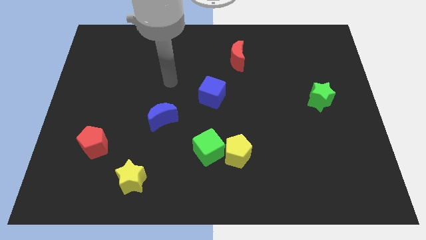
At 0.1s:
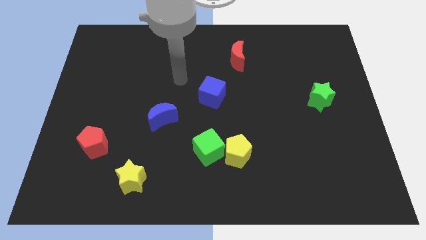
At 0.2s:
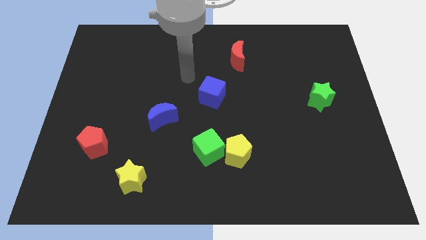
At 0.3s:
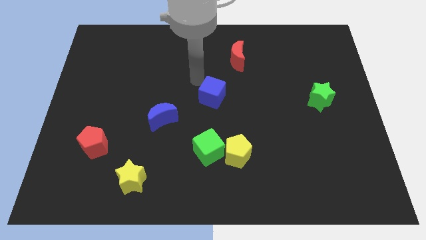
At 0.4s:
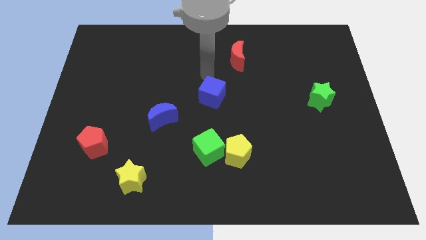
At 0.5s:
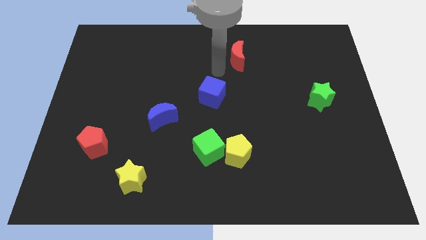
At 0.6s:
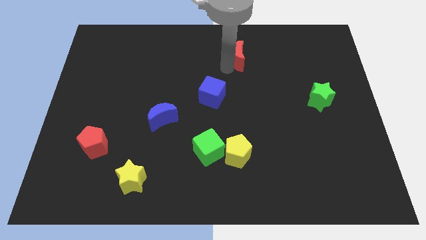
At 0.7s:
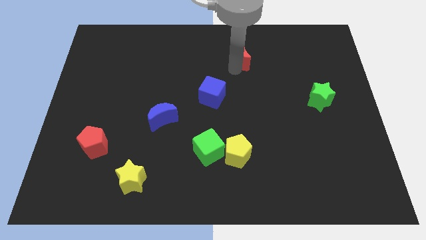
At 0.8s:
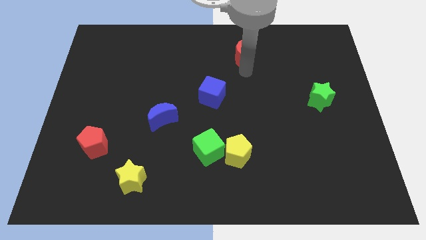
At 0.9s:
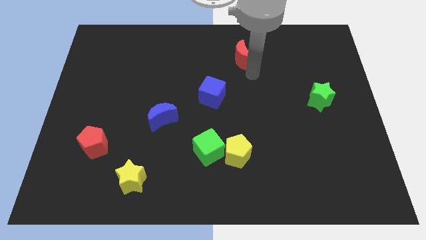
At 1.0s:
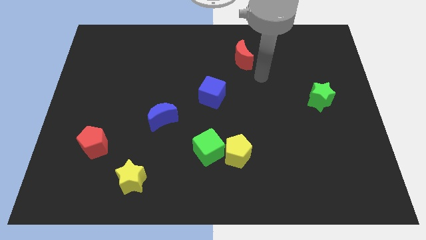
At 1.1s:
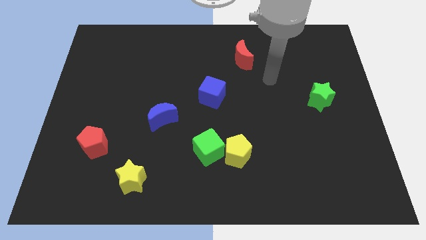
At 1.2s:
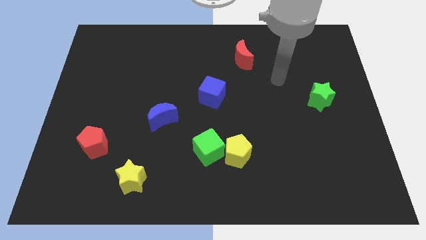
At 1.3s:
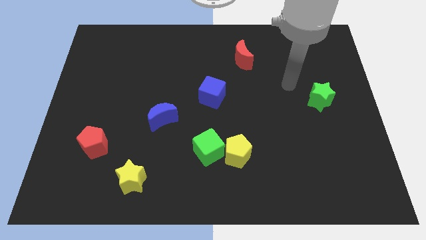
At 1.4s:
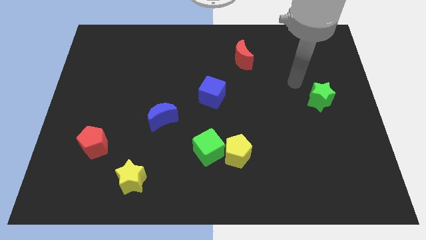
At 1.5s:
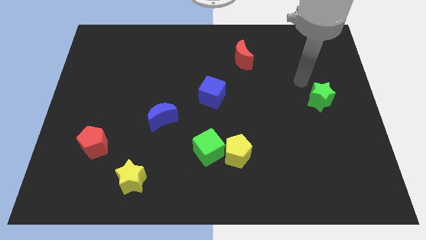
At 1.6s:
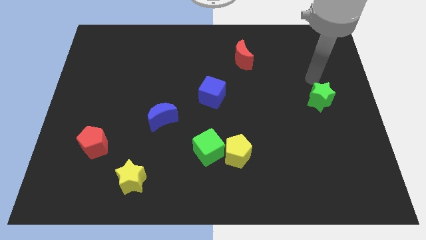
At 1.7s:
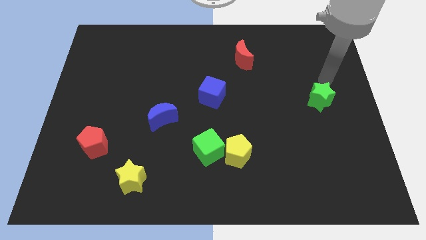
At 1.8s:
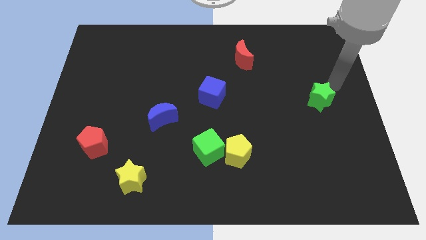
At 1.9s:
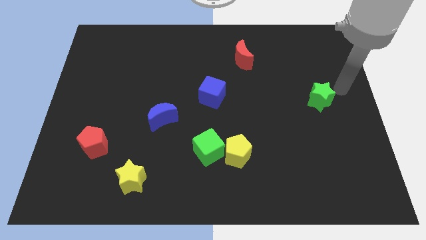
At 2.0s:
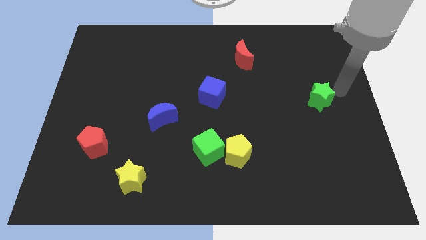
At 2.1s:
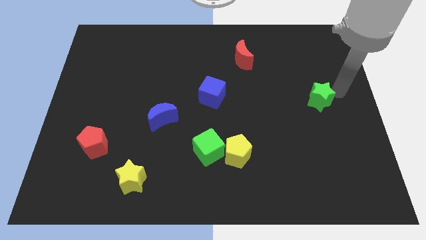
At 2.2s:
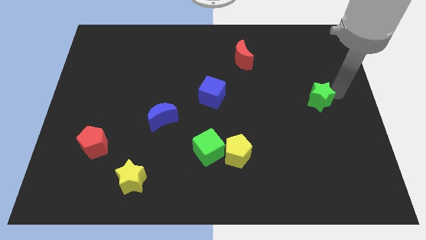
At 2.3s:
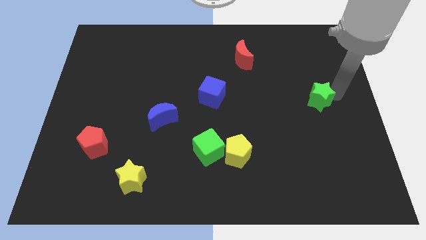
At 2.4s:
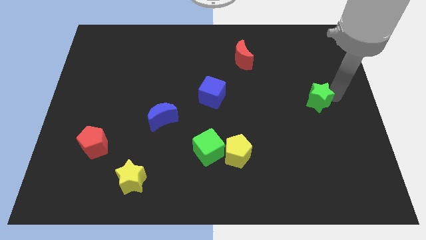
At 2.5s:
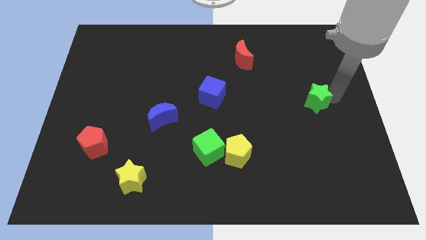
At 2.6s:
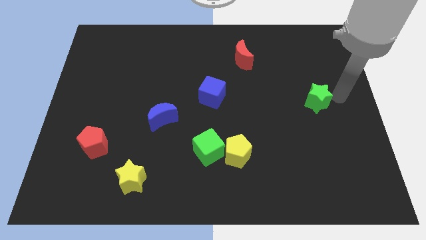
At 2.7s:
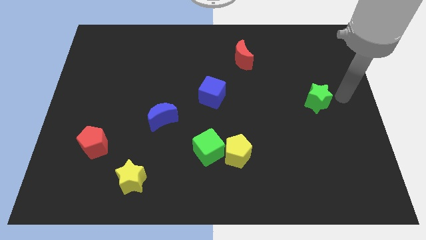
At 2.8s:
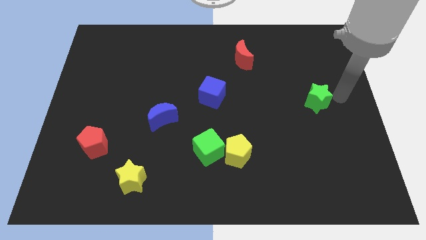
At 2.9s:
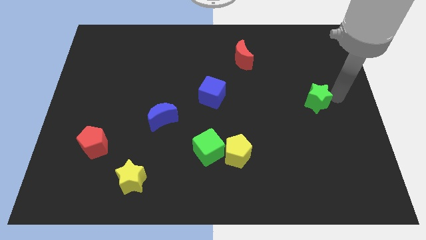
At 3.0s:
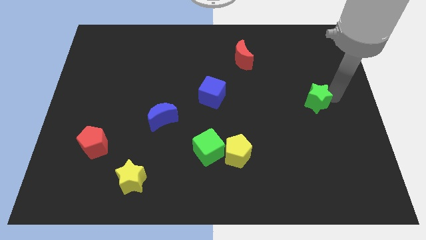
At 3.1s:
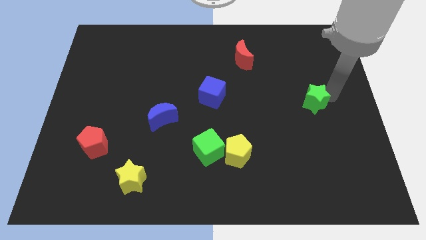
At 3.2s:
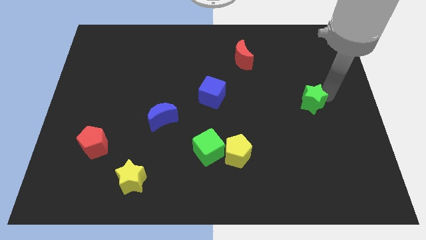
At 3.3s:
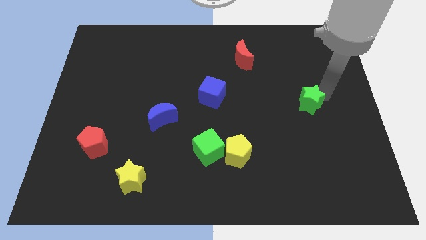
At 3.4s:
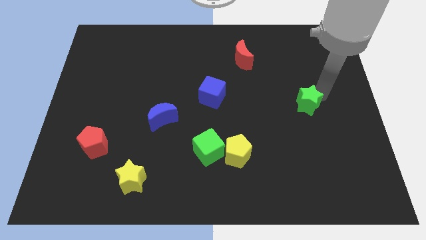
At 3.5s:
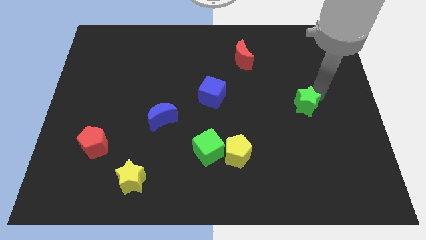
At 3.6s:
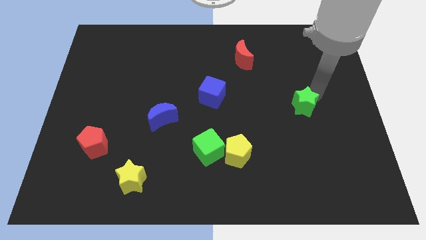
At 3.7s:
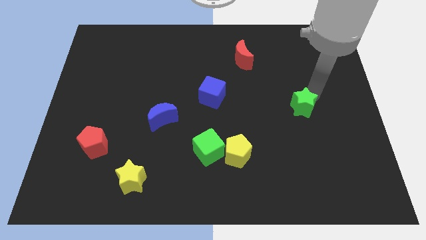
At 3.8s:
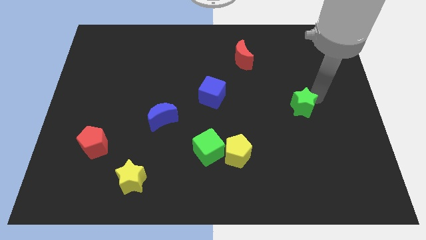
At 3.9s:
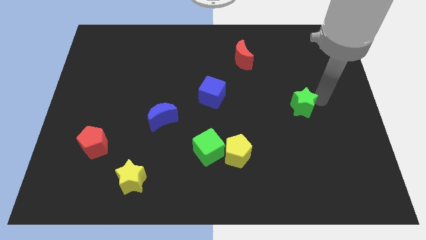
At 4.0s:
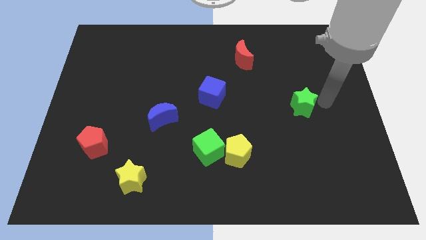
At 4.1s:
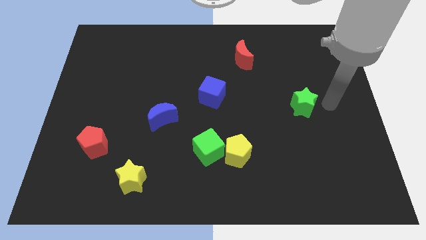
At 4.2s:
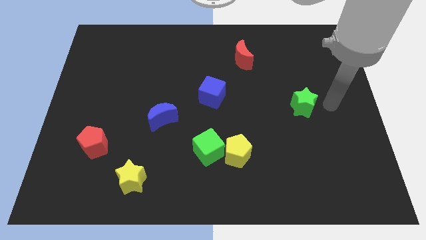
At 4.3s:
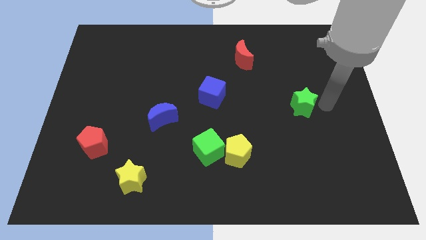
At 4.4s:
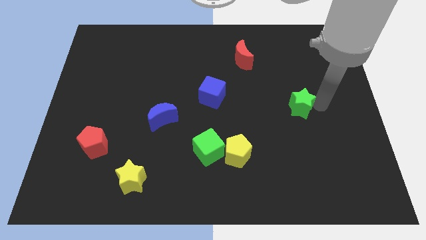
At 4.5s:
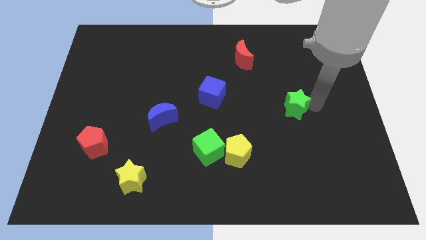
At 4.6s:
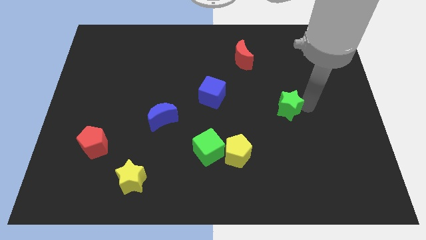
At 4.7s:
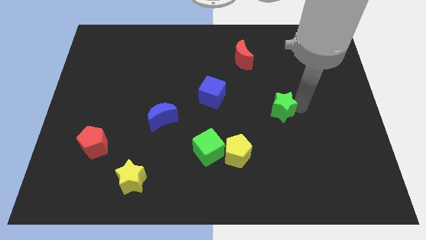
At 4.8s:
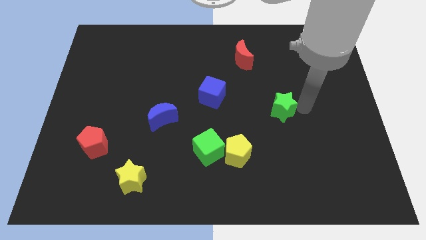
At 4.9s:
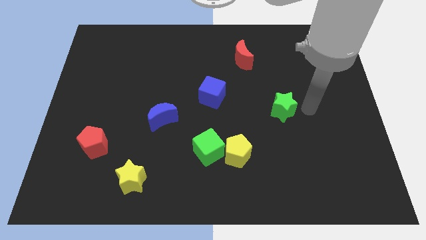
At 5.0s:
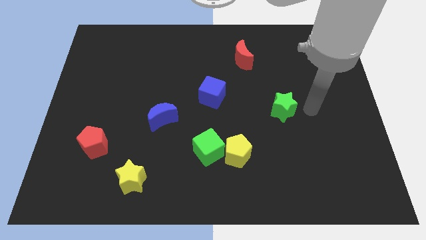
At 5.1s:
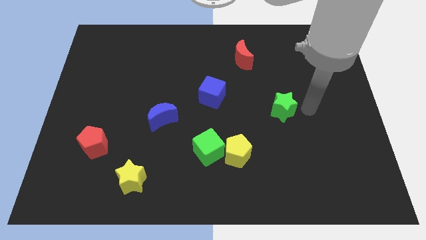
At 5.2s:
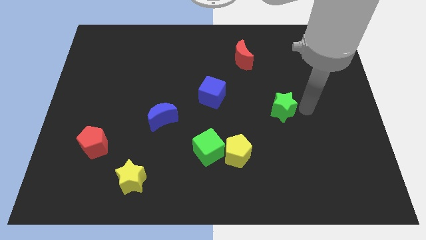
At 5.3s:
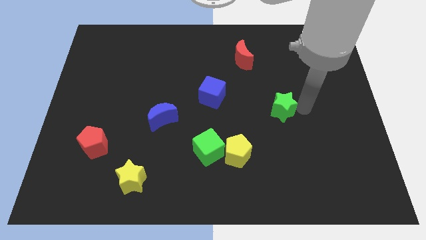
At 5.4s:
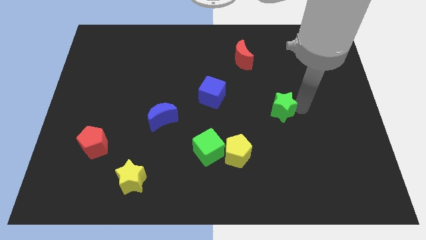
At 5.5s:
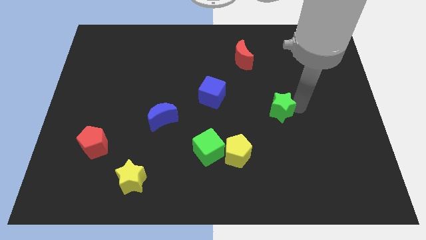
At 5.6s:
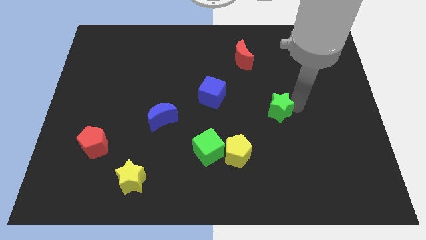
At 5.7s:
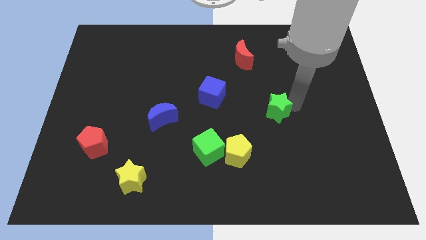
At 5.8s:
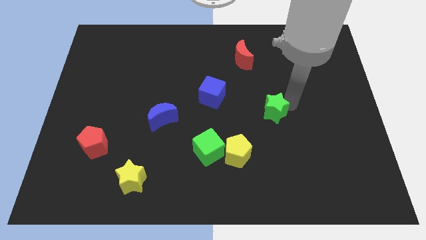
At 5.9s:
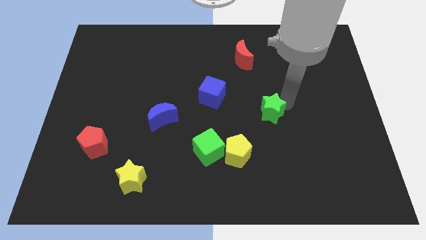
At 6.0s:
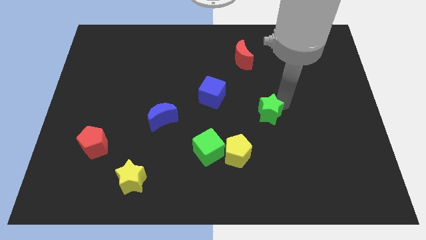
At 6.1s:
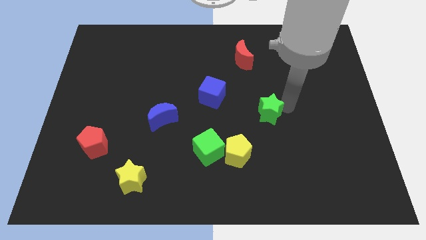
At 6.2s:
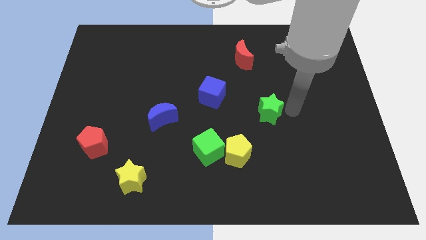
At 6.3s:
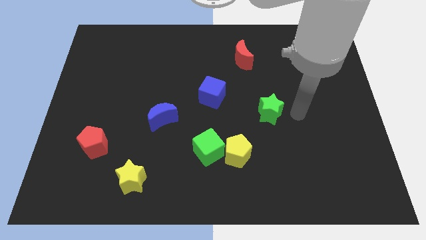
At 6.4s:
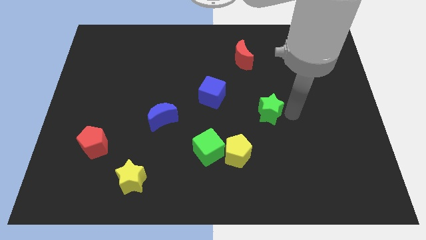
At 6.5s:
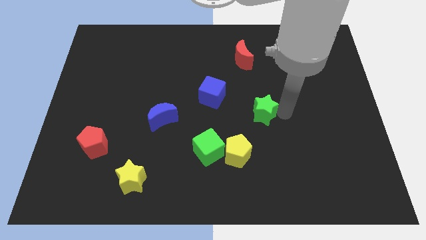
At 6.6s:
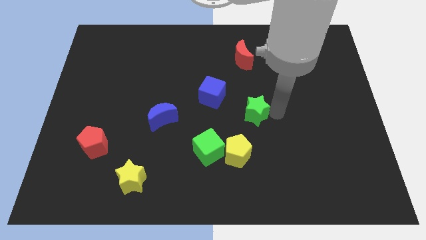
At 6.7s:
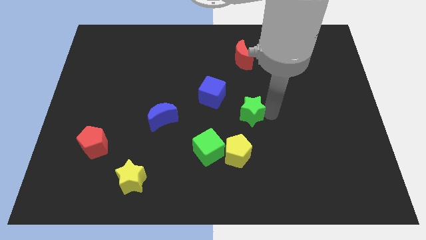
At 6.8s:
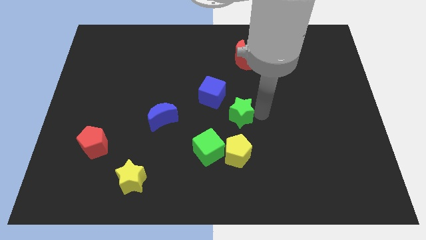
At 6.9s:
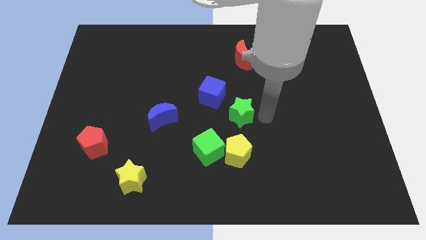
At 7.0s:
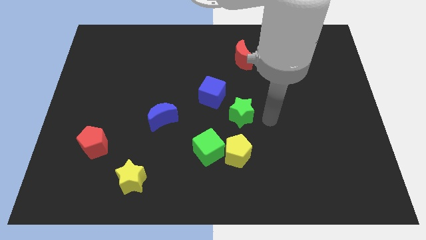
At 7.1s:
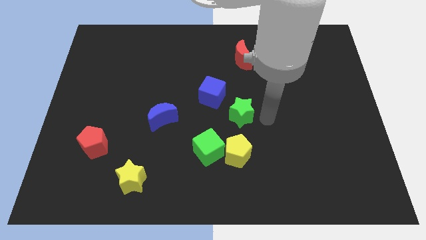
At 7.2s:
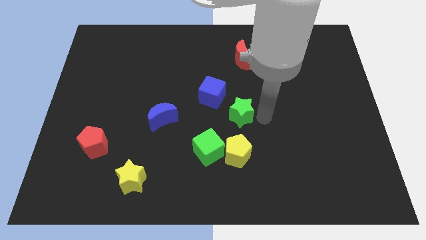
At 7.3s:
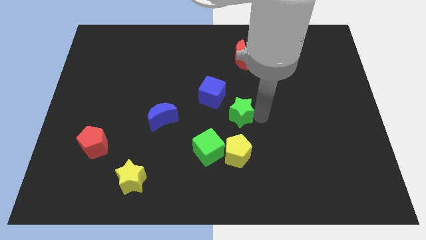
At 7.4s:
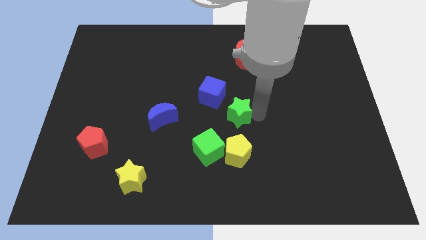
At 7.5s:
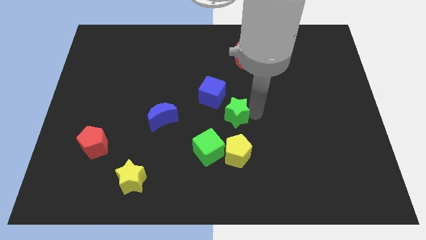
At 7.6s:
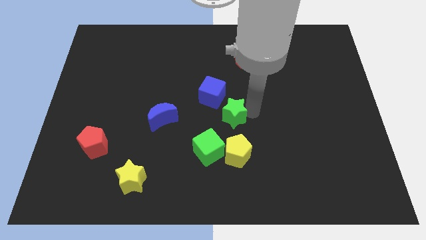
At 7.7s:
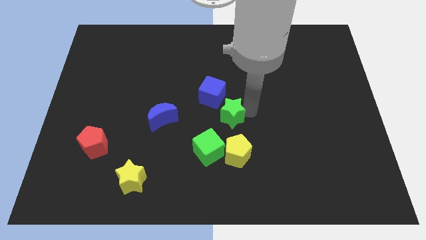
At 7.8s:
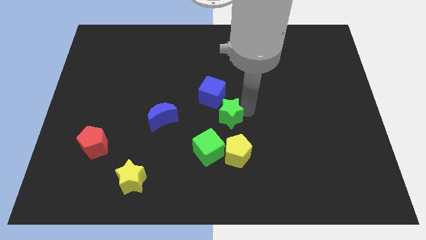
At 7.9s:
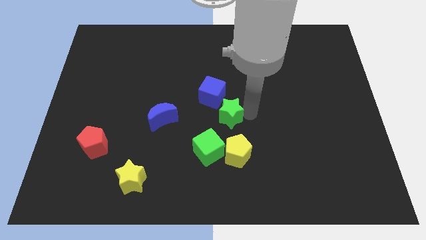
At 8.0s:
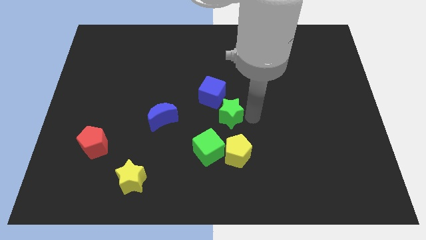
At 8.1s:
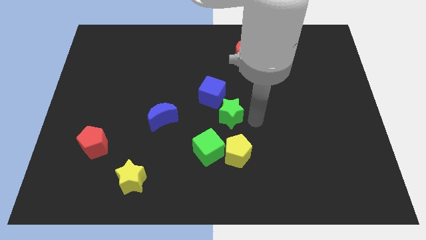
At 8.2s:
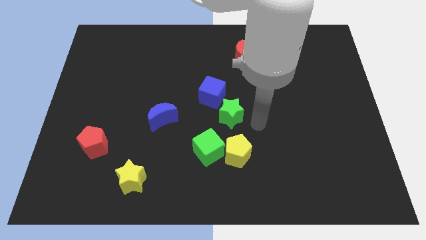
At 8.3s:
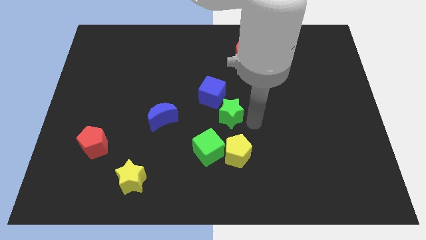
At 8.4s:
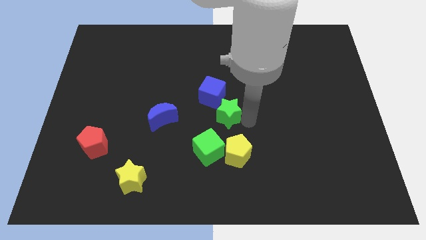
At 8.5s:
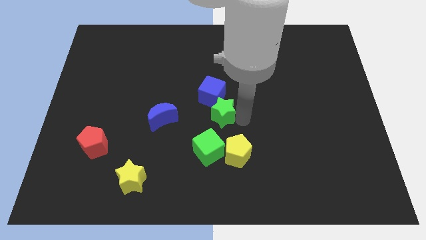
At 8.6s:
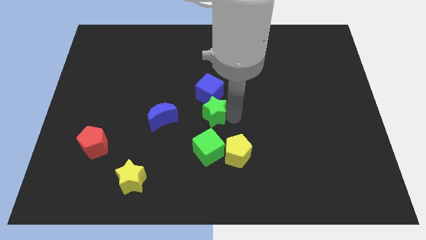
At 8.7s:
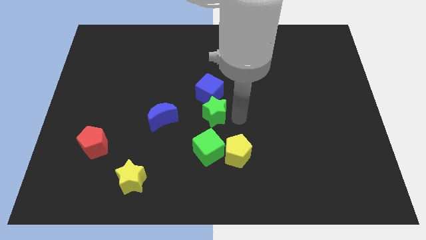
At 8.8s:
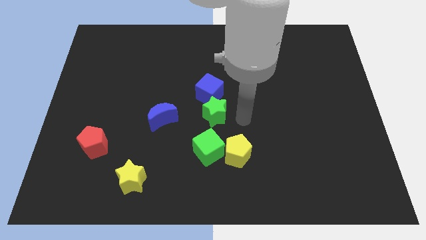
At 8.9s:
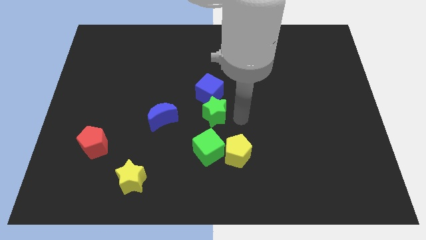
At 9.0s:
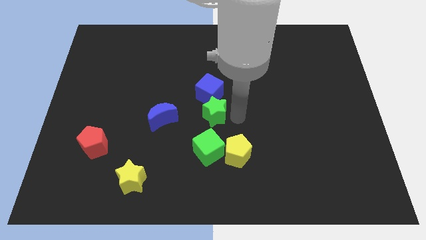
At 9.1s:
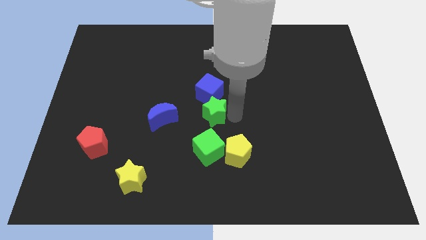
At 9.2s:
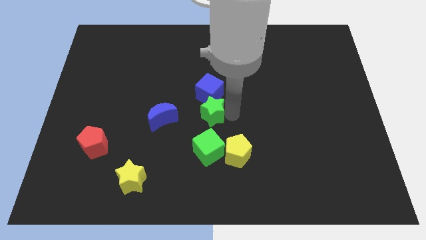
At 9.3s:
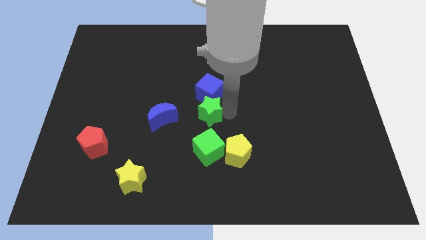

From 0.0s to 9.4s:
move the green star to the bottom left side of the blue cube
